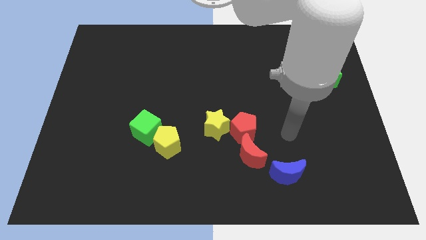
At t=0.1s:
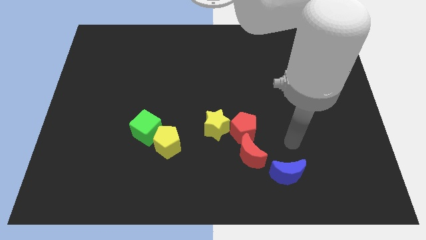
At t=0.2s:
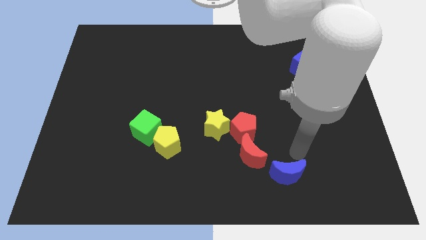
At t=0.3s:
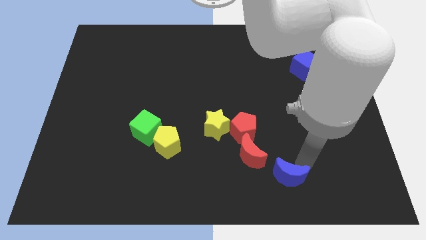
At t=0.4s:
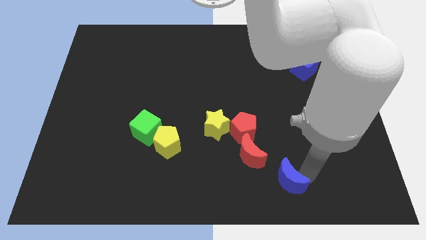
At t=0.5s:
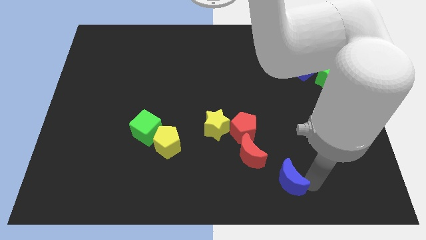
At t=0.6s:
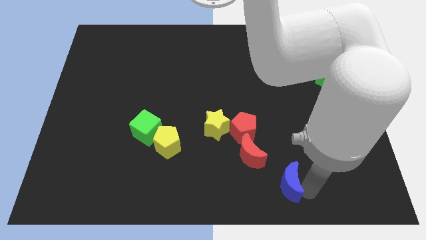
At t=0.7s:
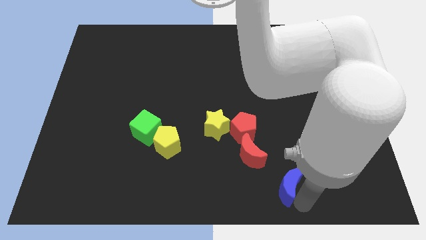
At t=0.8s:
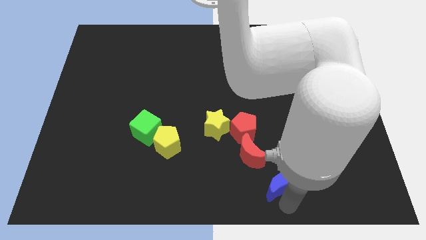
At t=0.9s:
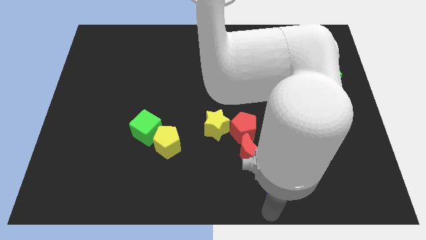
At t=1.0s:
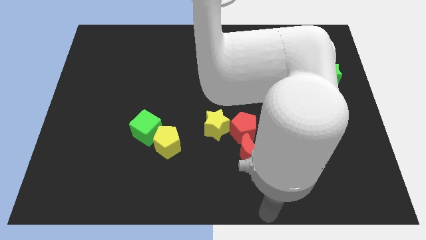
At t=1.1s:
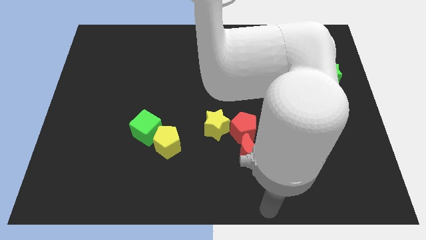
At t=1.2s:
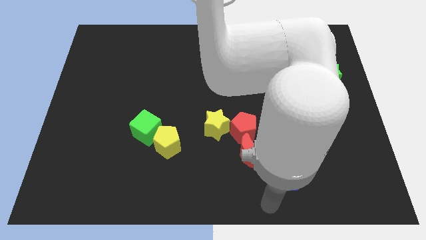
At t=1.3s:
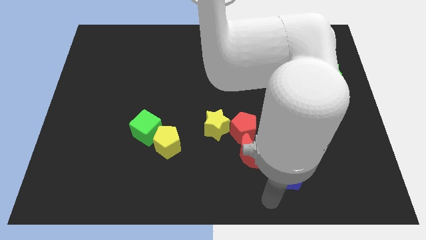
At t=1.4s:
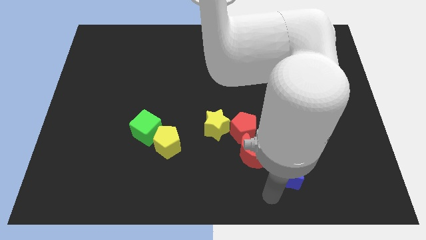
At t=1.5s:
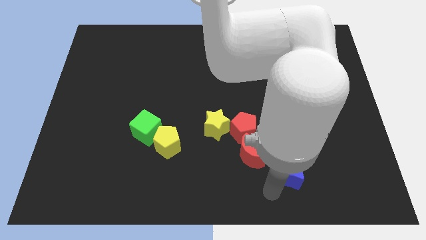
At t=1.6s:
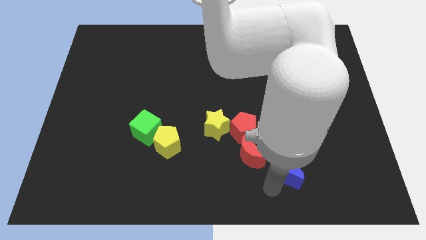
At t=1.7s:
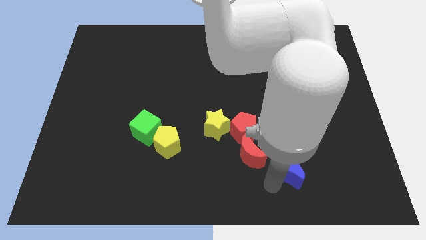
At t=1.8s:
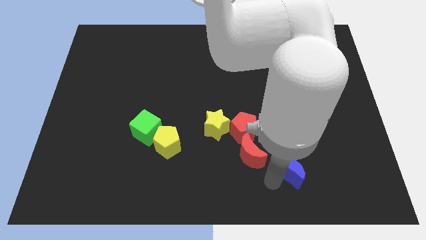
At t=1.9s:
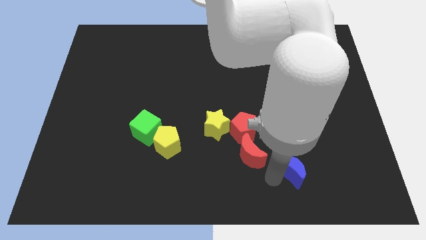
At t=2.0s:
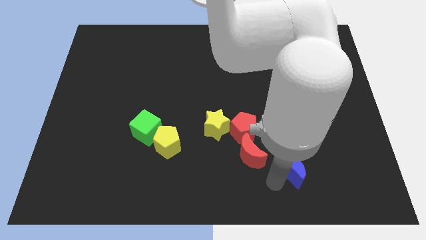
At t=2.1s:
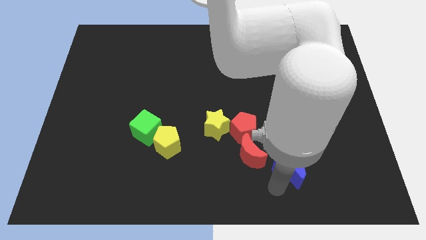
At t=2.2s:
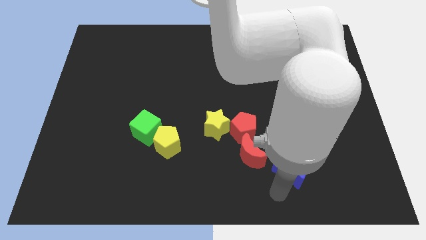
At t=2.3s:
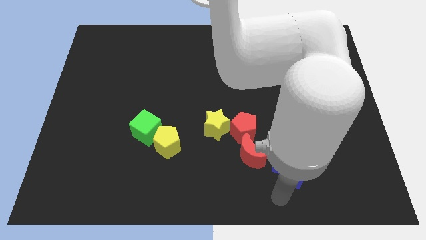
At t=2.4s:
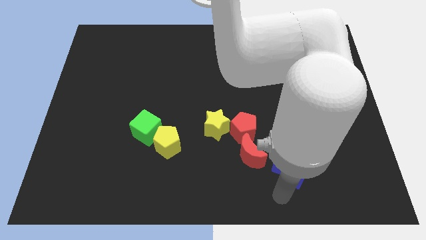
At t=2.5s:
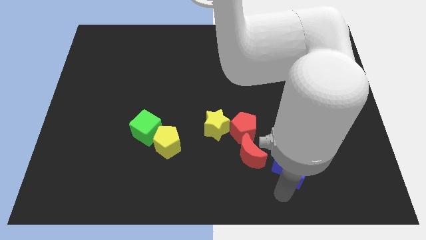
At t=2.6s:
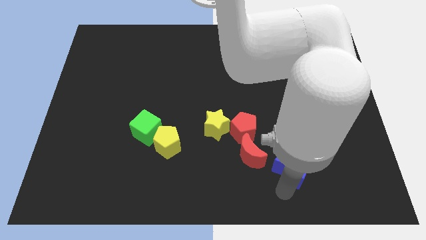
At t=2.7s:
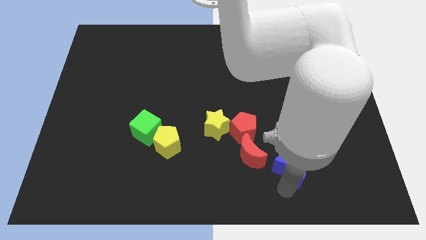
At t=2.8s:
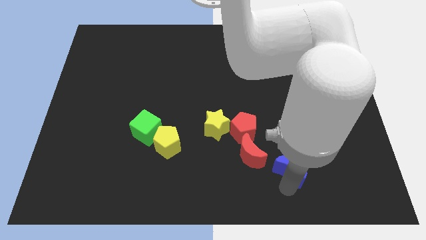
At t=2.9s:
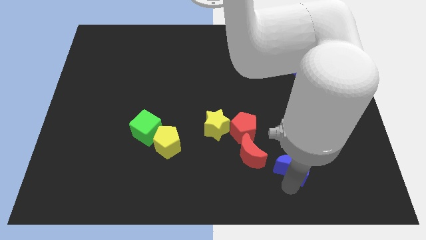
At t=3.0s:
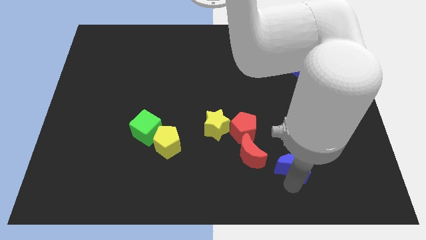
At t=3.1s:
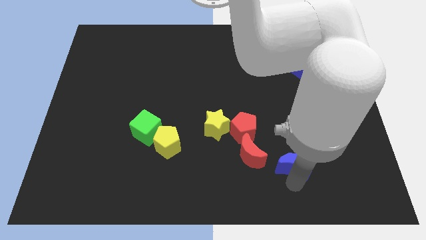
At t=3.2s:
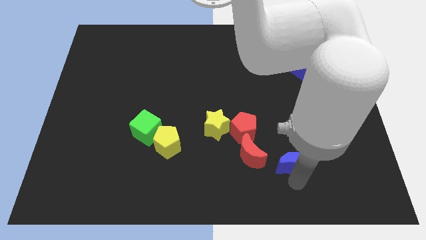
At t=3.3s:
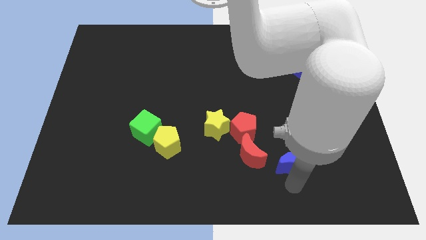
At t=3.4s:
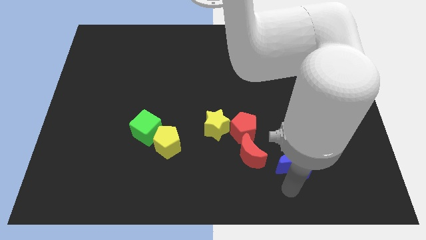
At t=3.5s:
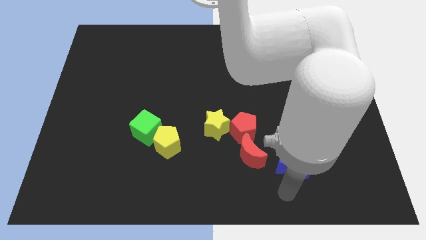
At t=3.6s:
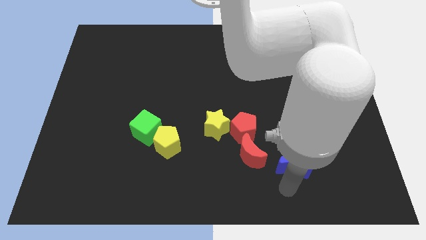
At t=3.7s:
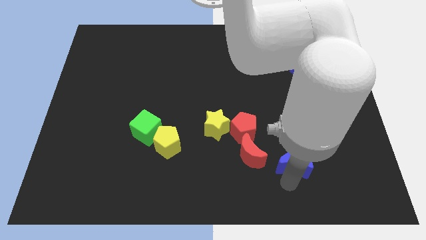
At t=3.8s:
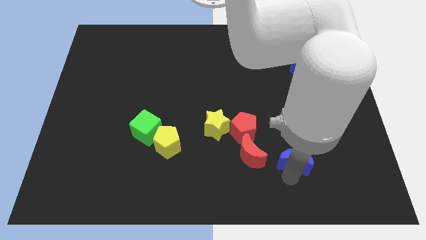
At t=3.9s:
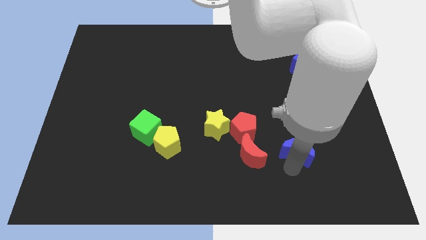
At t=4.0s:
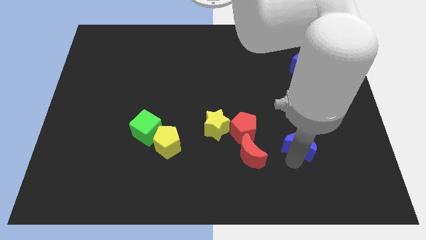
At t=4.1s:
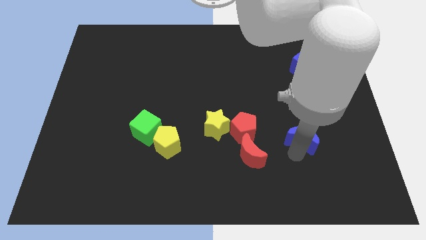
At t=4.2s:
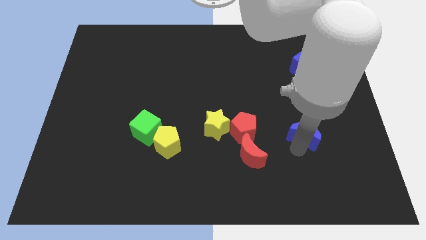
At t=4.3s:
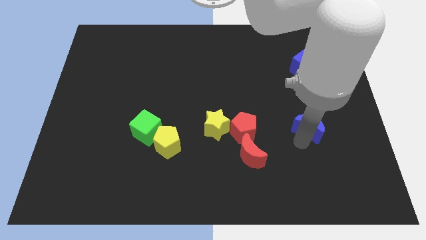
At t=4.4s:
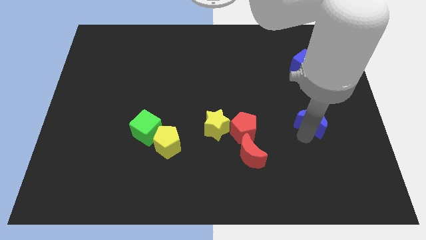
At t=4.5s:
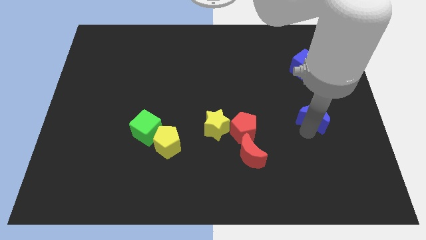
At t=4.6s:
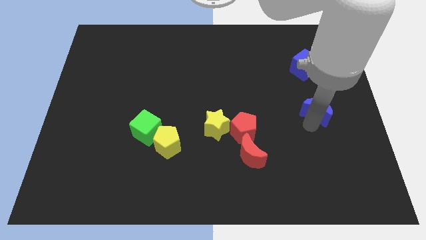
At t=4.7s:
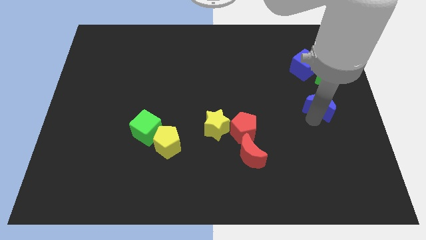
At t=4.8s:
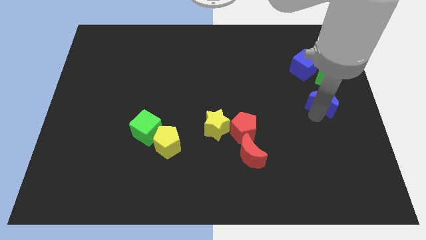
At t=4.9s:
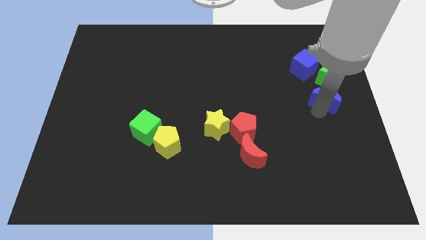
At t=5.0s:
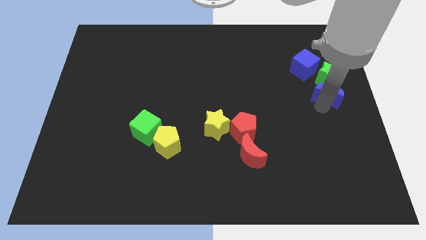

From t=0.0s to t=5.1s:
put the blue moon next to the green star

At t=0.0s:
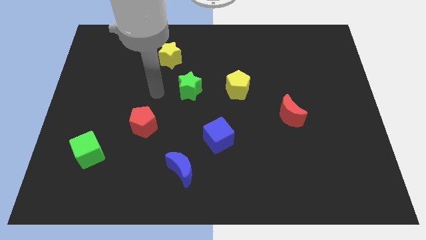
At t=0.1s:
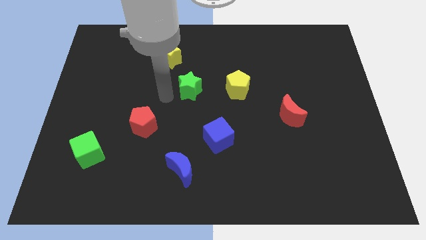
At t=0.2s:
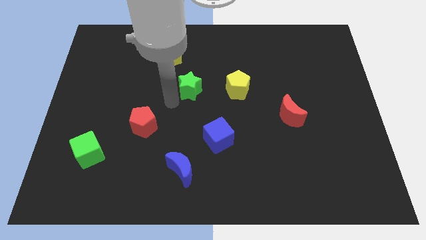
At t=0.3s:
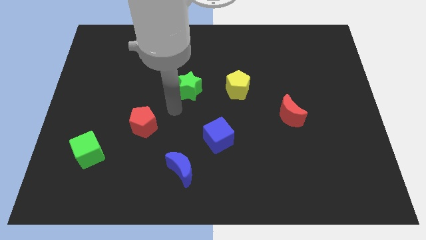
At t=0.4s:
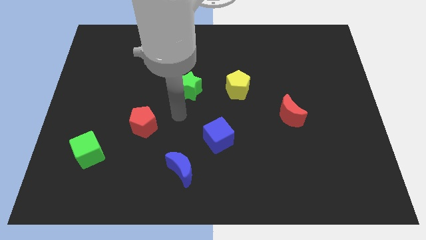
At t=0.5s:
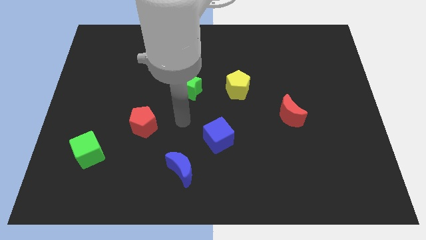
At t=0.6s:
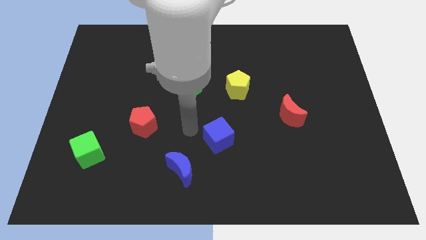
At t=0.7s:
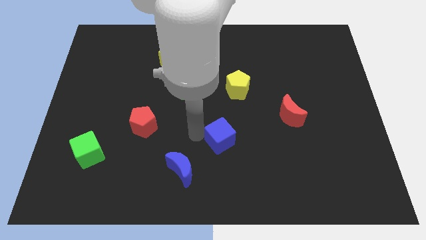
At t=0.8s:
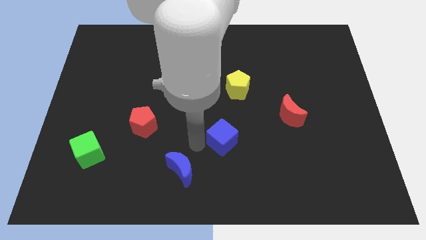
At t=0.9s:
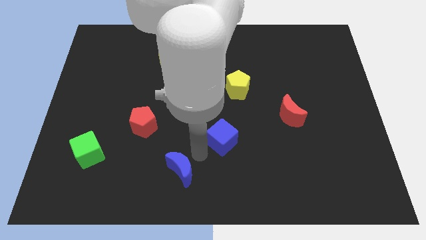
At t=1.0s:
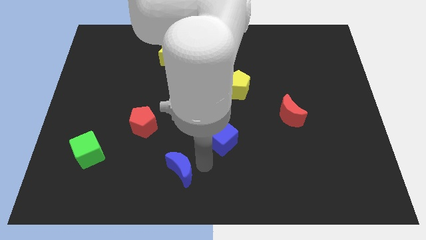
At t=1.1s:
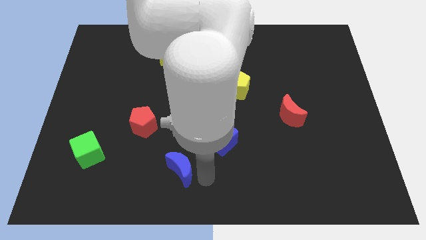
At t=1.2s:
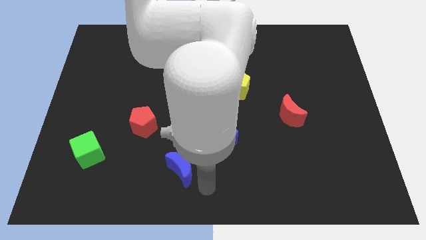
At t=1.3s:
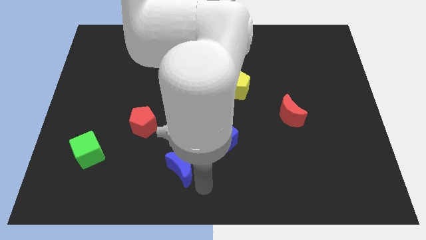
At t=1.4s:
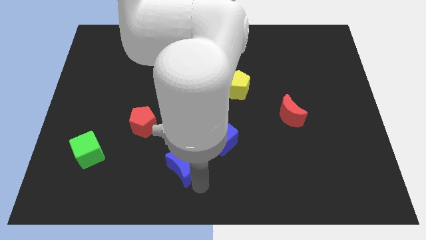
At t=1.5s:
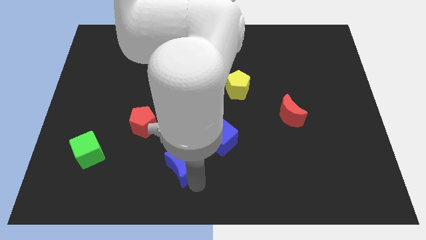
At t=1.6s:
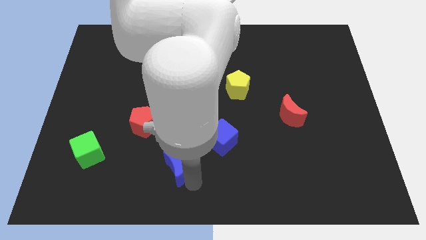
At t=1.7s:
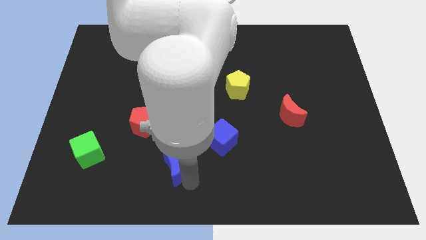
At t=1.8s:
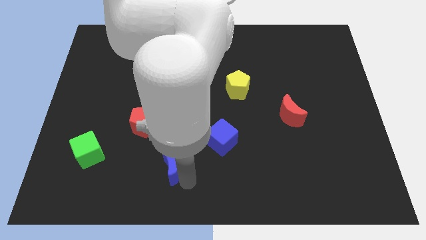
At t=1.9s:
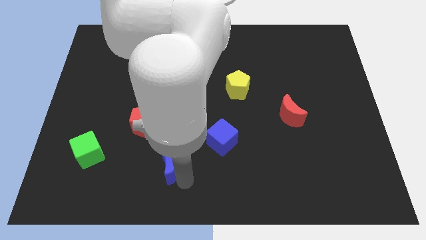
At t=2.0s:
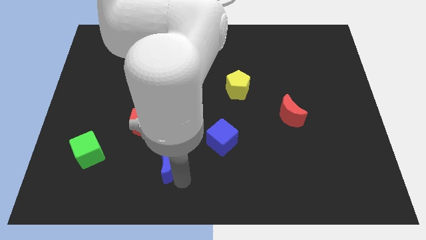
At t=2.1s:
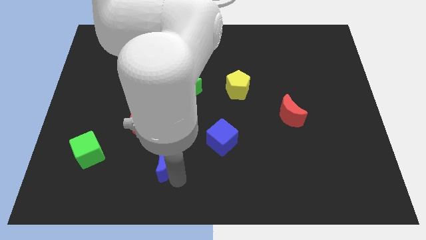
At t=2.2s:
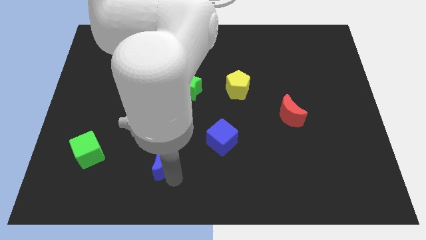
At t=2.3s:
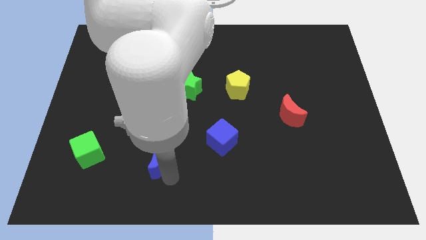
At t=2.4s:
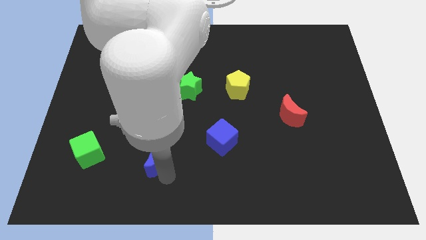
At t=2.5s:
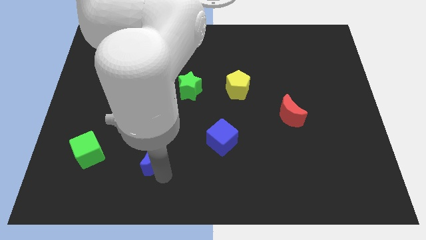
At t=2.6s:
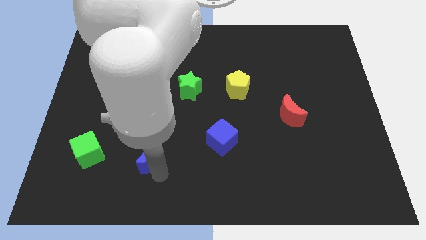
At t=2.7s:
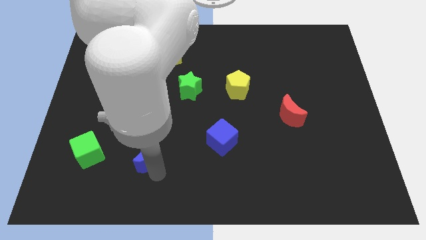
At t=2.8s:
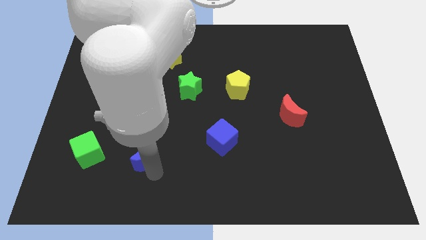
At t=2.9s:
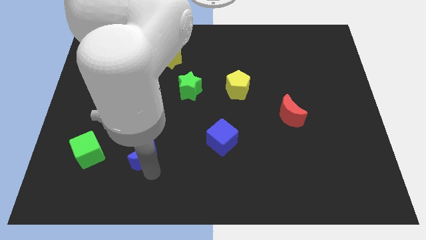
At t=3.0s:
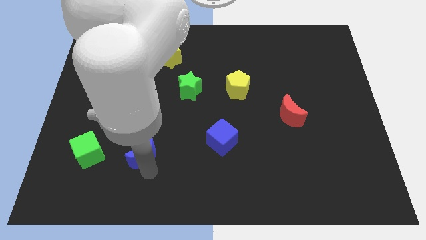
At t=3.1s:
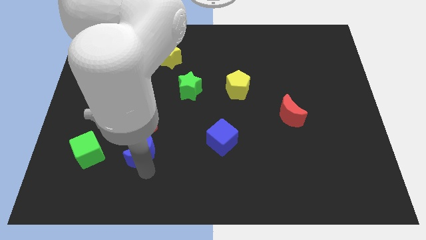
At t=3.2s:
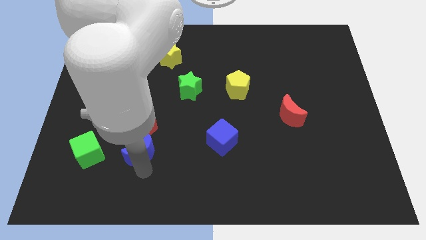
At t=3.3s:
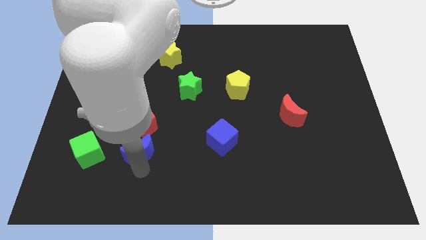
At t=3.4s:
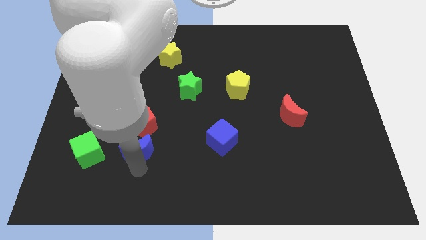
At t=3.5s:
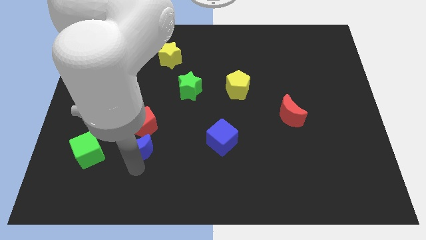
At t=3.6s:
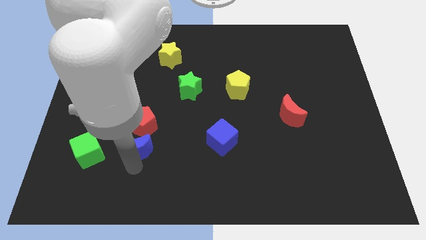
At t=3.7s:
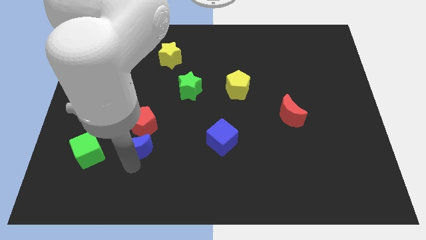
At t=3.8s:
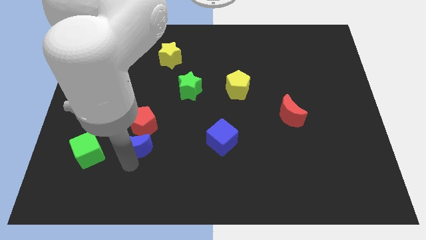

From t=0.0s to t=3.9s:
put the blue moon close to the red pentagon
